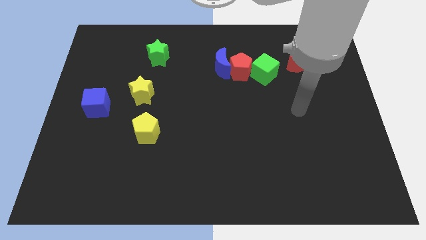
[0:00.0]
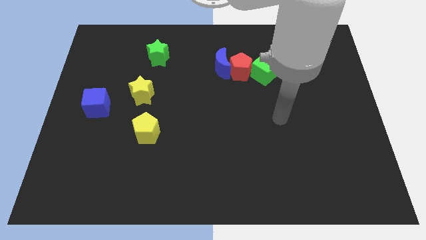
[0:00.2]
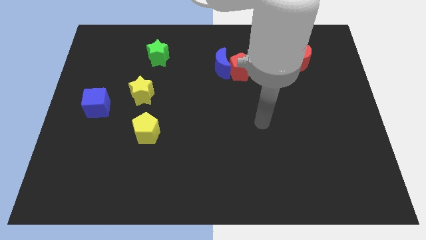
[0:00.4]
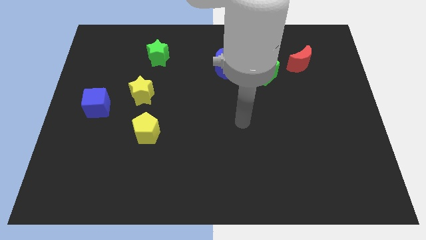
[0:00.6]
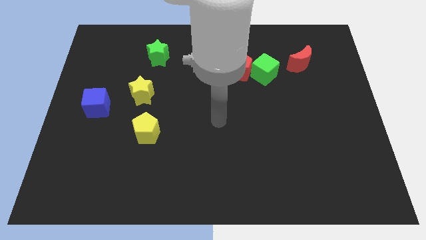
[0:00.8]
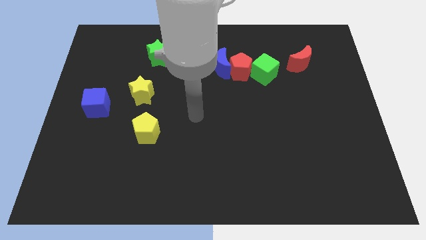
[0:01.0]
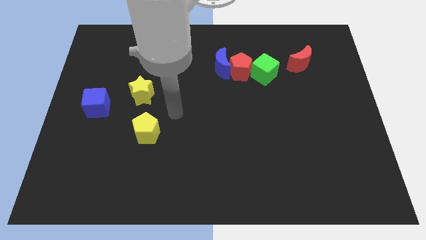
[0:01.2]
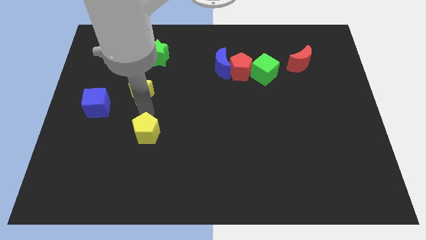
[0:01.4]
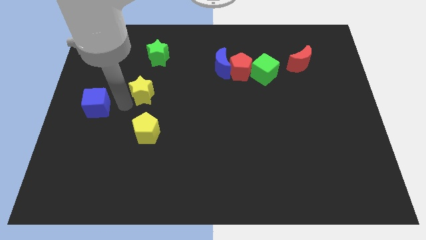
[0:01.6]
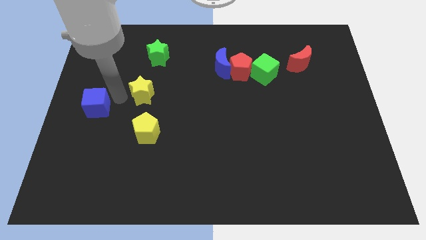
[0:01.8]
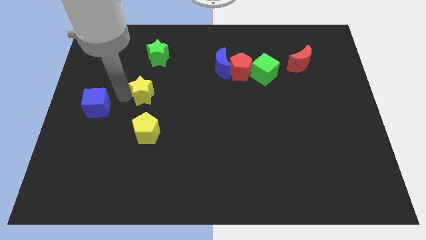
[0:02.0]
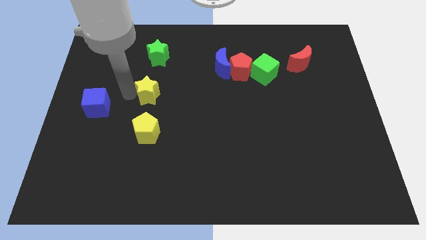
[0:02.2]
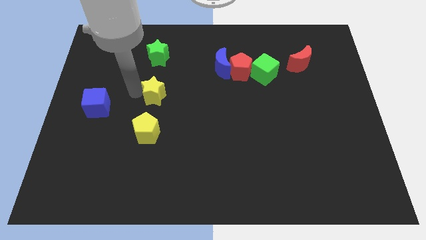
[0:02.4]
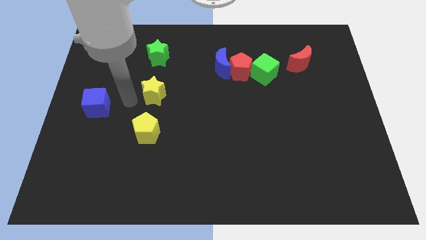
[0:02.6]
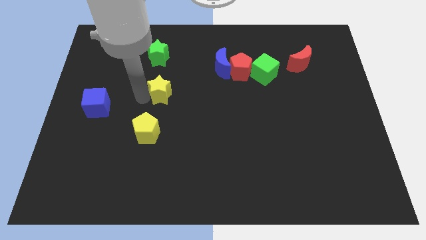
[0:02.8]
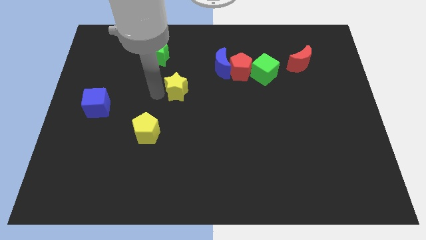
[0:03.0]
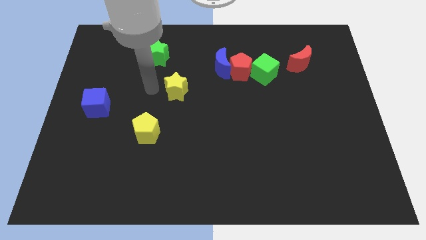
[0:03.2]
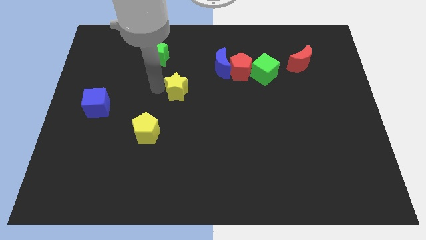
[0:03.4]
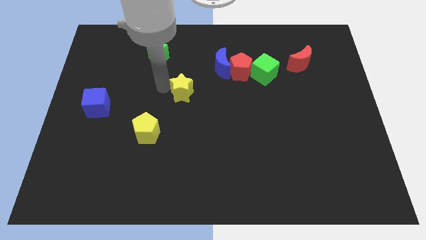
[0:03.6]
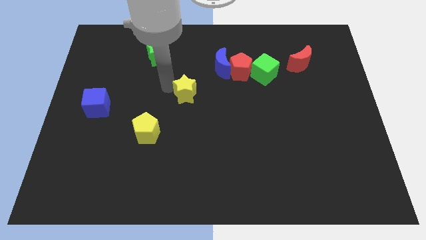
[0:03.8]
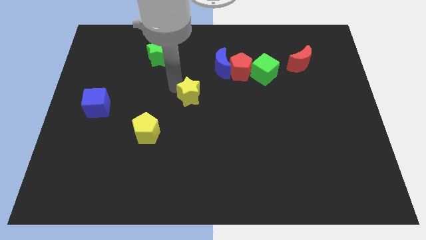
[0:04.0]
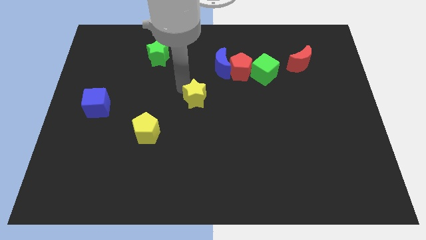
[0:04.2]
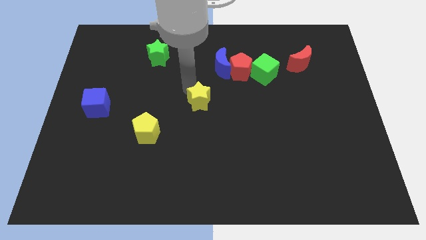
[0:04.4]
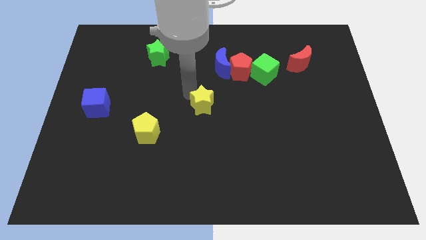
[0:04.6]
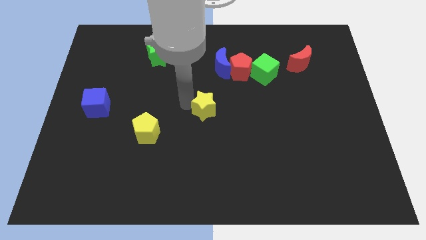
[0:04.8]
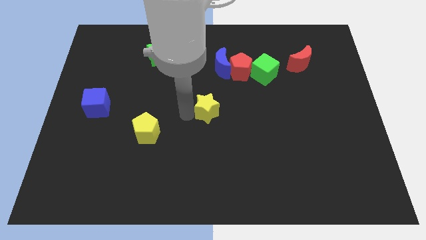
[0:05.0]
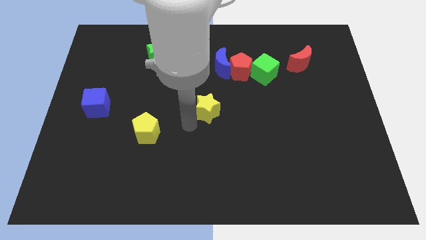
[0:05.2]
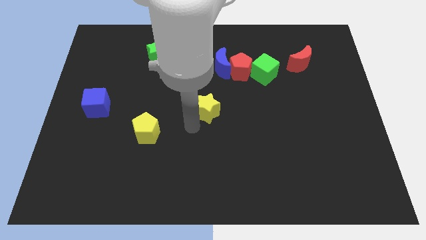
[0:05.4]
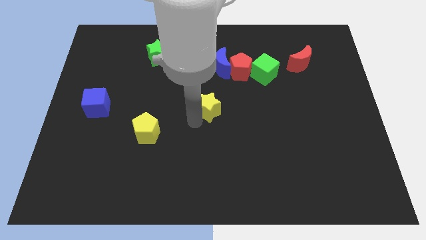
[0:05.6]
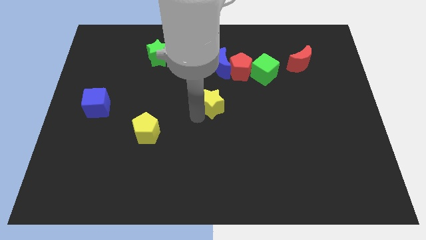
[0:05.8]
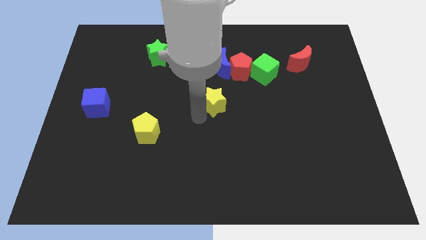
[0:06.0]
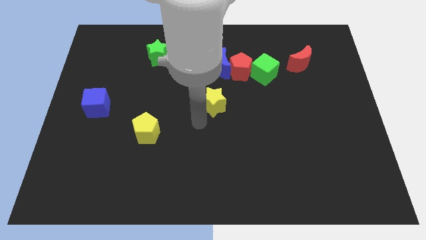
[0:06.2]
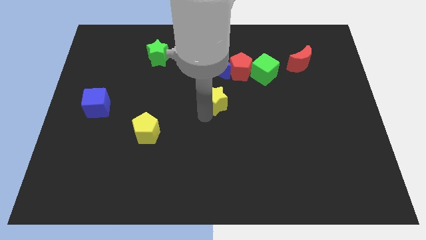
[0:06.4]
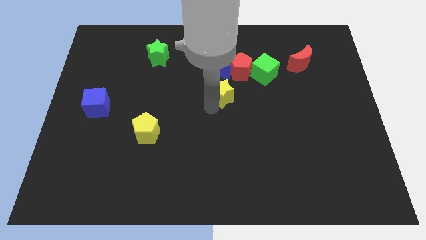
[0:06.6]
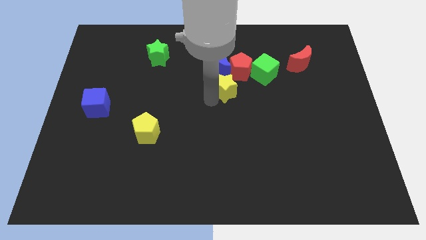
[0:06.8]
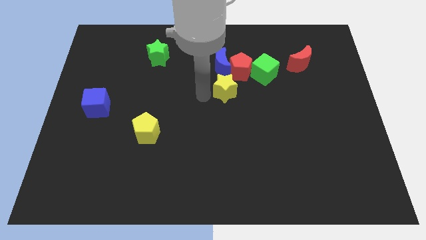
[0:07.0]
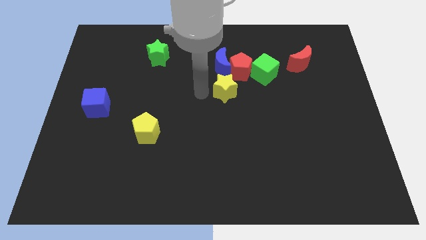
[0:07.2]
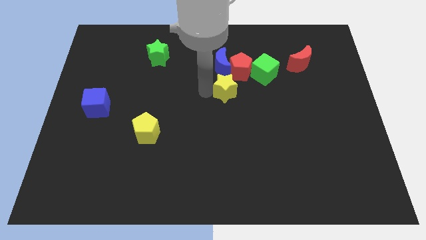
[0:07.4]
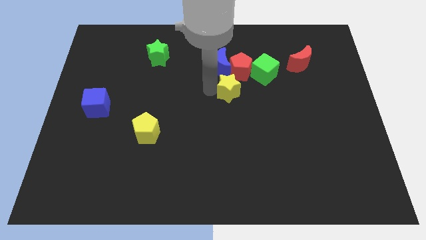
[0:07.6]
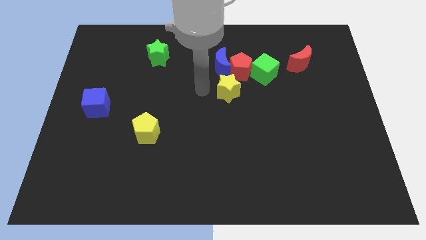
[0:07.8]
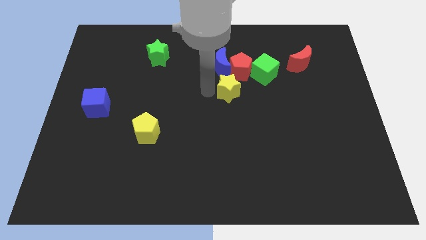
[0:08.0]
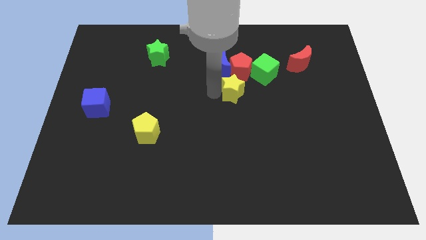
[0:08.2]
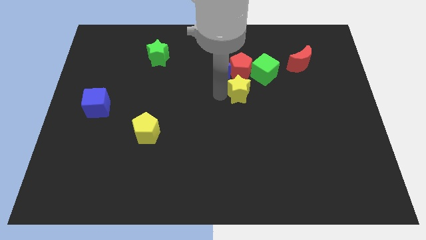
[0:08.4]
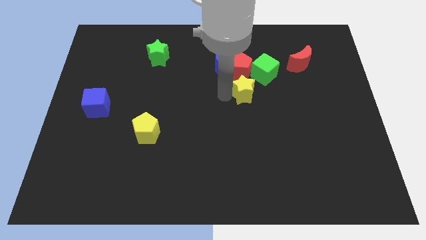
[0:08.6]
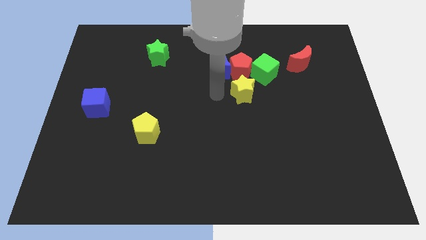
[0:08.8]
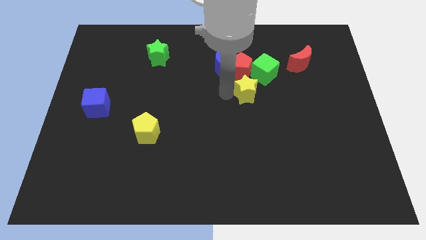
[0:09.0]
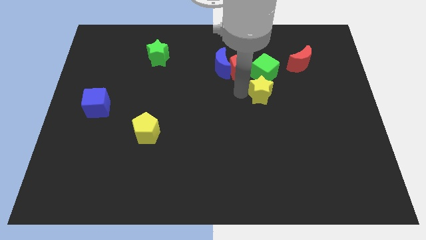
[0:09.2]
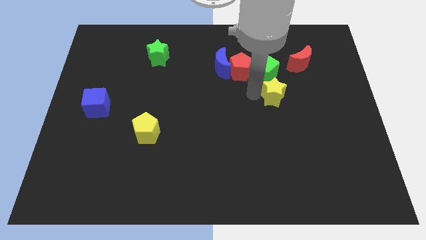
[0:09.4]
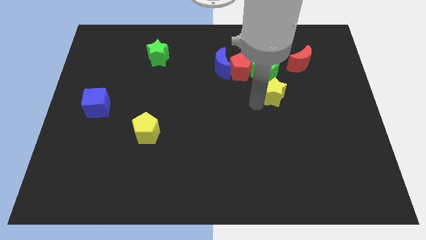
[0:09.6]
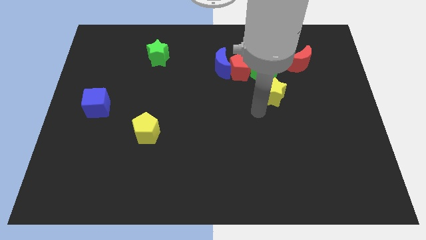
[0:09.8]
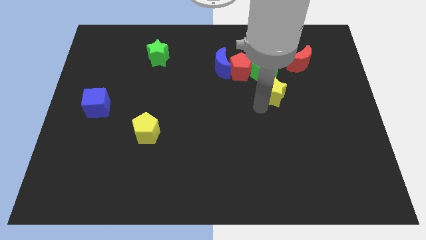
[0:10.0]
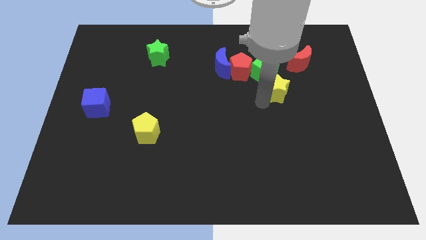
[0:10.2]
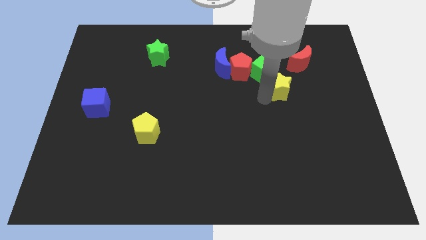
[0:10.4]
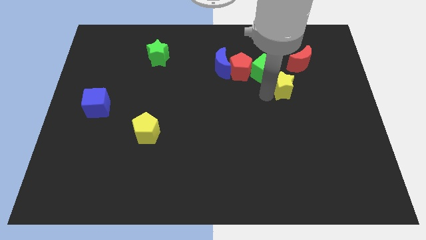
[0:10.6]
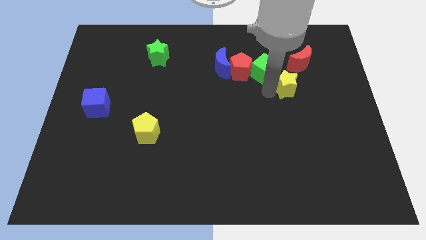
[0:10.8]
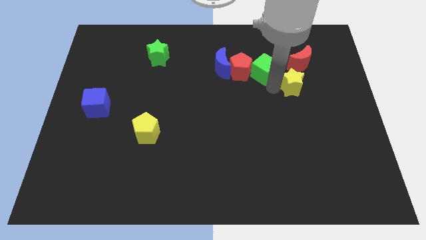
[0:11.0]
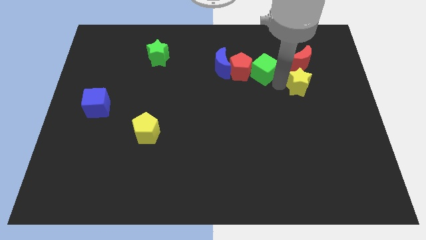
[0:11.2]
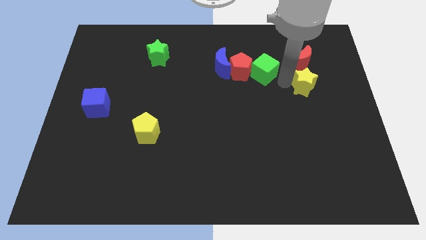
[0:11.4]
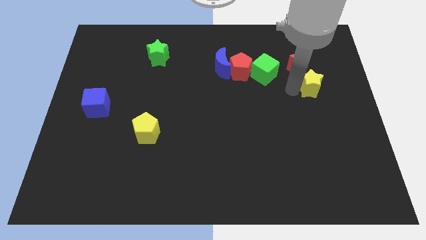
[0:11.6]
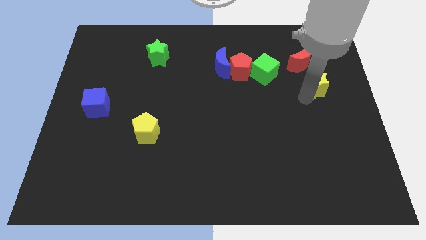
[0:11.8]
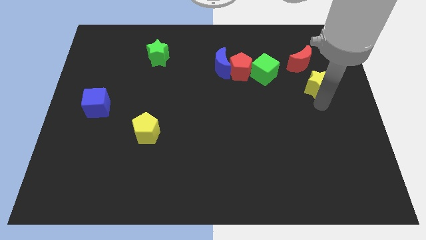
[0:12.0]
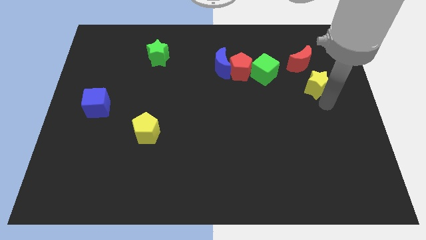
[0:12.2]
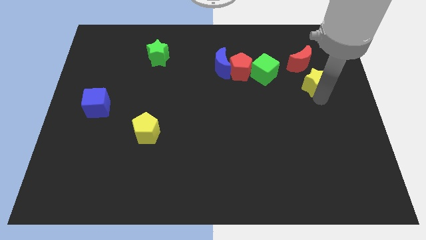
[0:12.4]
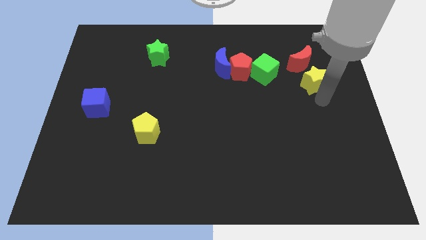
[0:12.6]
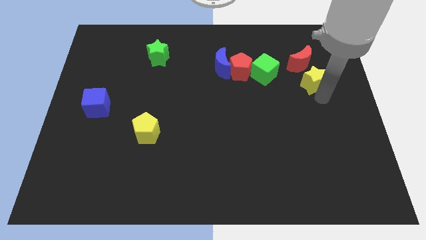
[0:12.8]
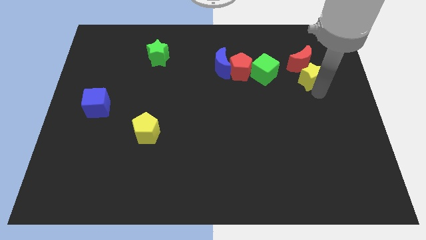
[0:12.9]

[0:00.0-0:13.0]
push the yellow star to the red moon
